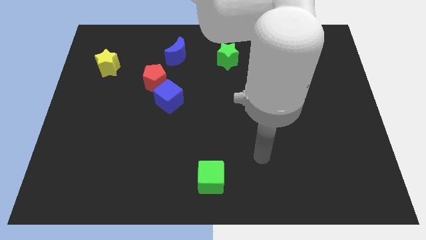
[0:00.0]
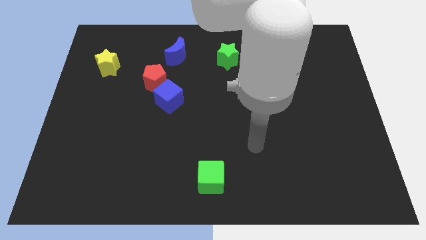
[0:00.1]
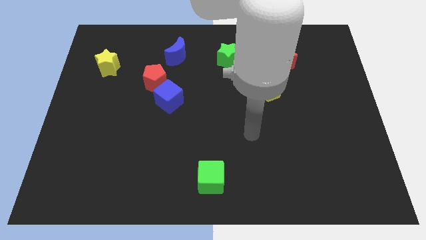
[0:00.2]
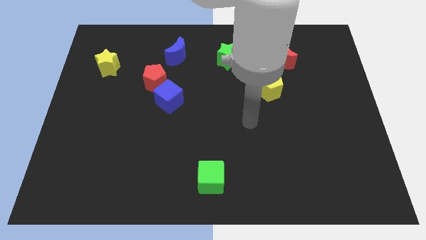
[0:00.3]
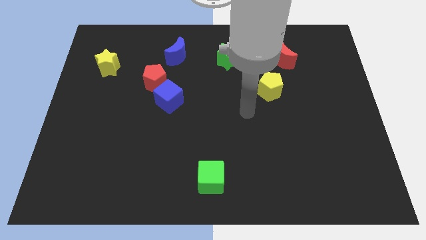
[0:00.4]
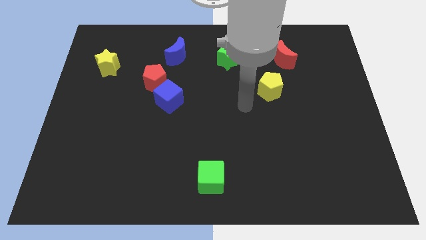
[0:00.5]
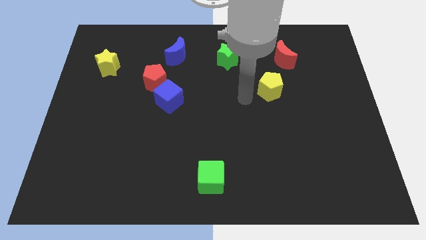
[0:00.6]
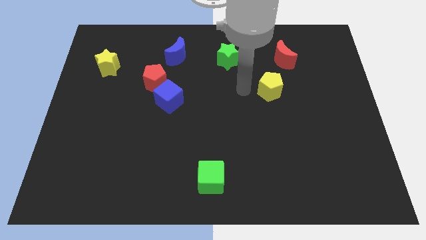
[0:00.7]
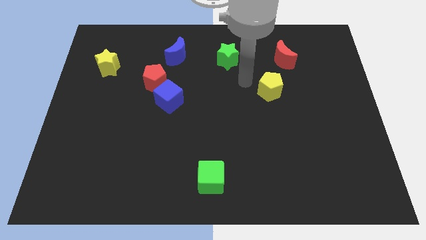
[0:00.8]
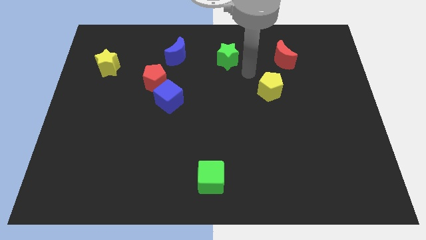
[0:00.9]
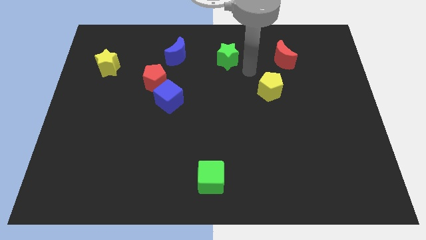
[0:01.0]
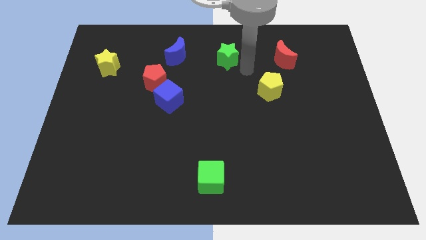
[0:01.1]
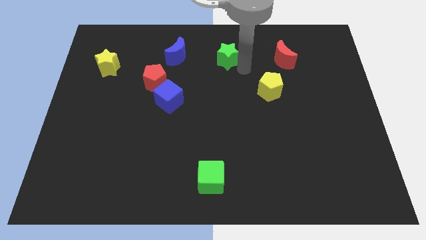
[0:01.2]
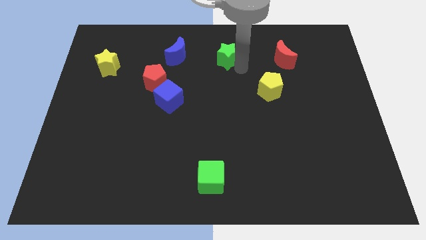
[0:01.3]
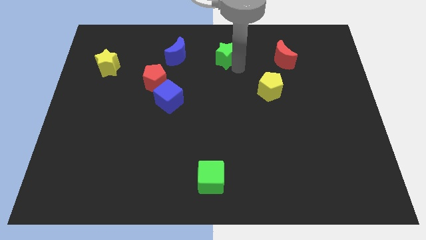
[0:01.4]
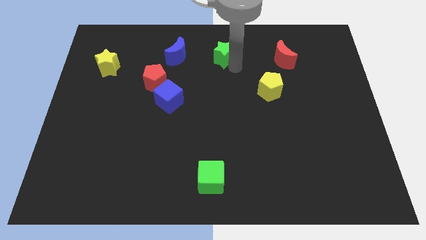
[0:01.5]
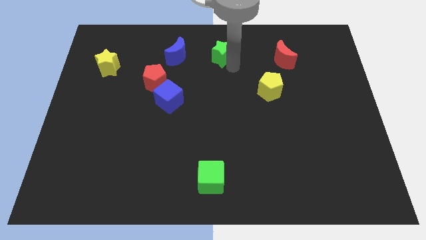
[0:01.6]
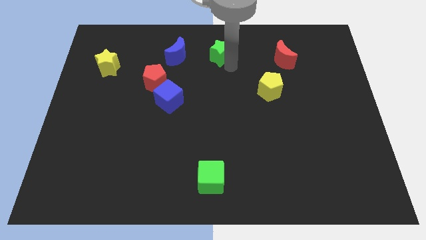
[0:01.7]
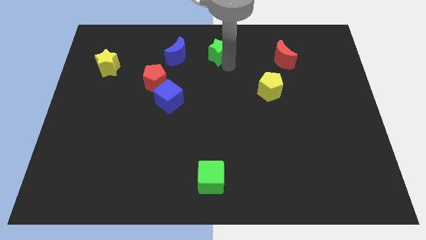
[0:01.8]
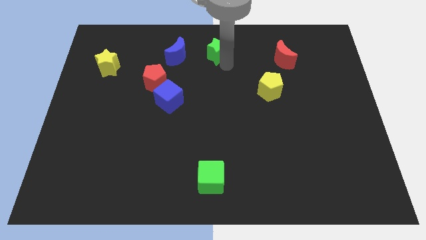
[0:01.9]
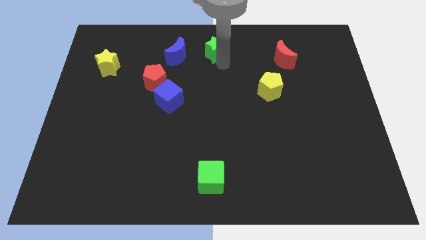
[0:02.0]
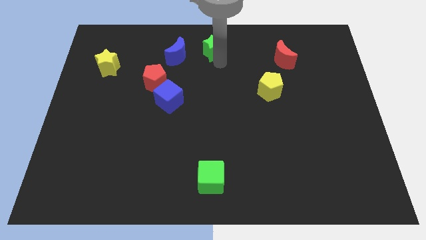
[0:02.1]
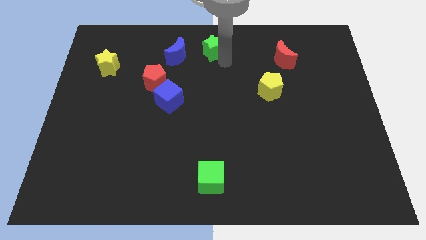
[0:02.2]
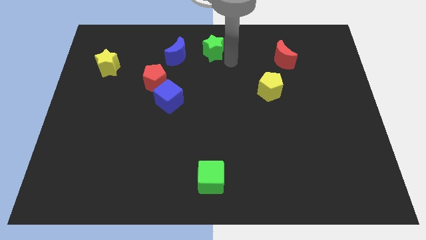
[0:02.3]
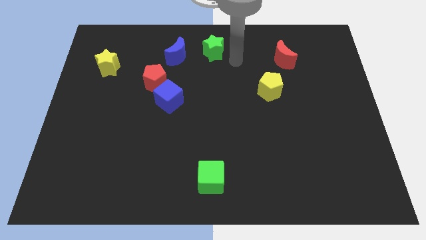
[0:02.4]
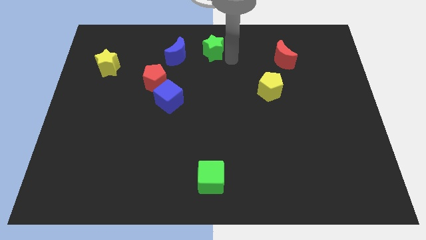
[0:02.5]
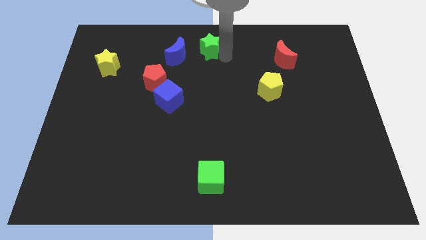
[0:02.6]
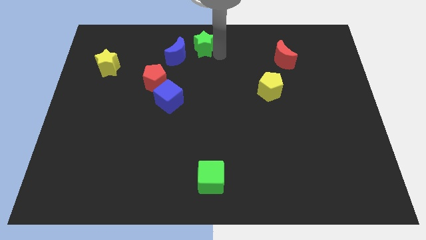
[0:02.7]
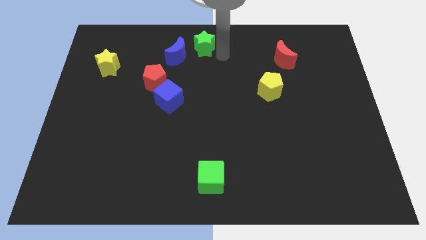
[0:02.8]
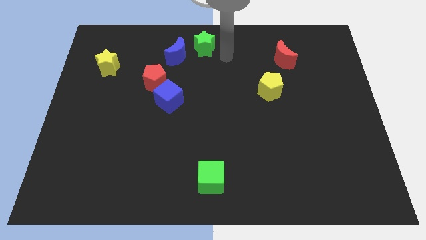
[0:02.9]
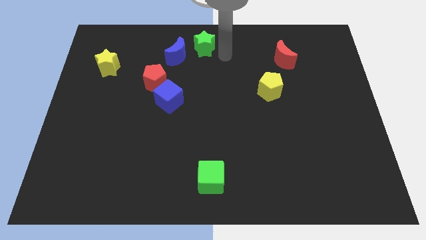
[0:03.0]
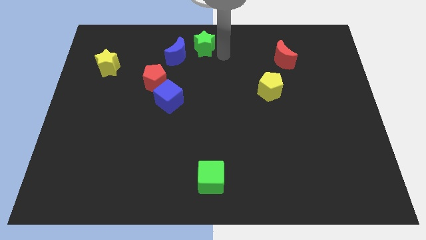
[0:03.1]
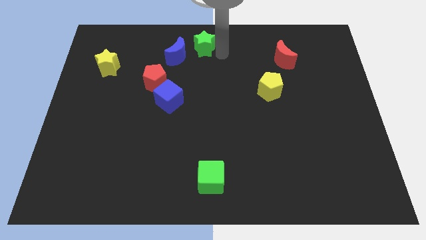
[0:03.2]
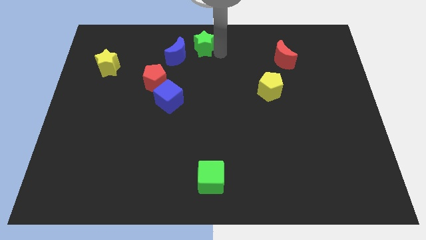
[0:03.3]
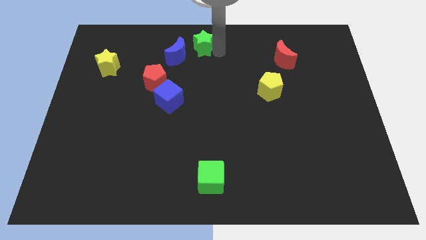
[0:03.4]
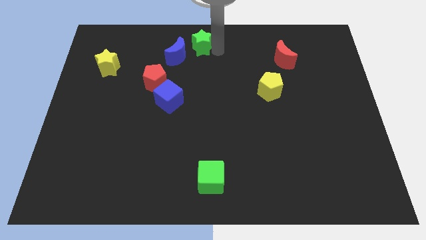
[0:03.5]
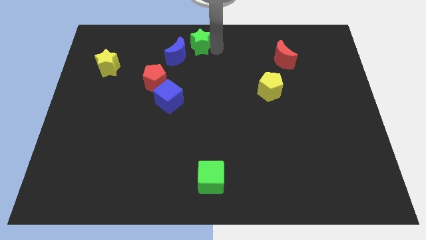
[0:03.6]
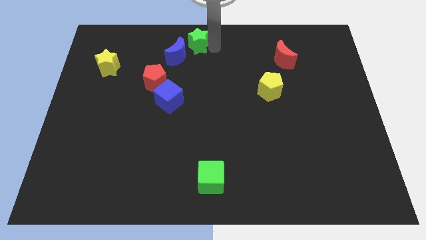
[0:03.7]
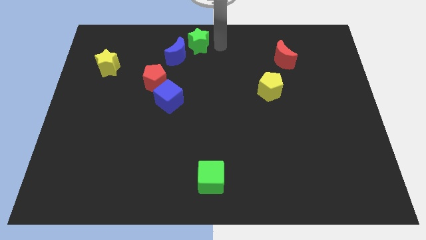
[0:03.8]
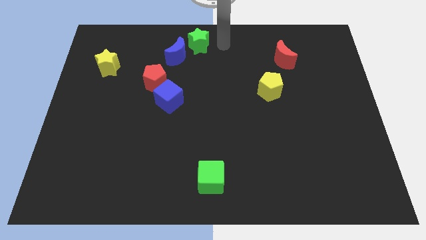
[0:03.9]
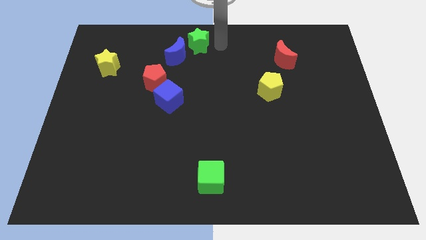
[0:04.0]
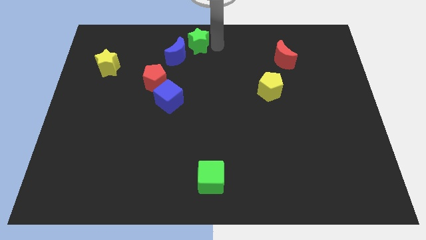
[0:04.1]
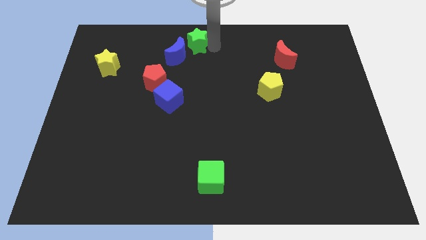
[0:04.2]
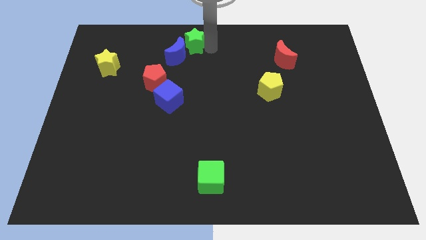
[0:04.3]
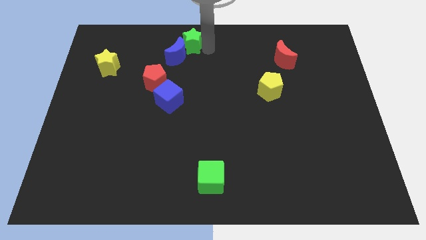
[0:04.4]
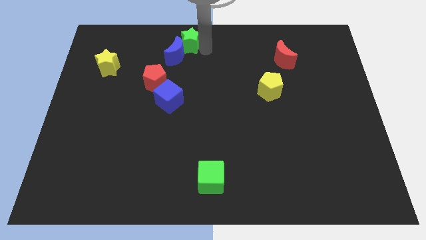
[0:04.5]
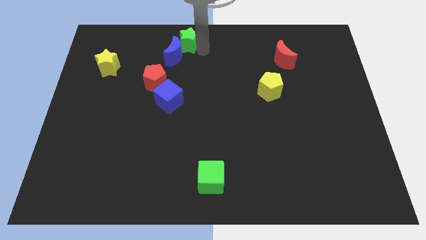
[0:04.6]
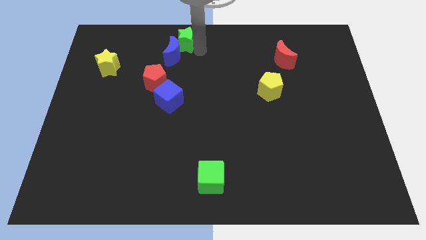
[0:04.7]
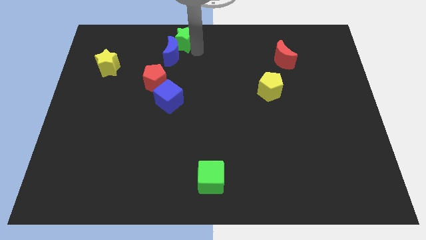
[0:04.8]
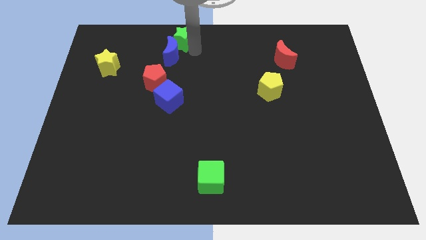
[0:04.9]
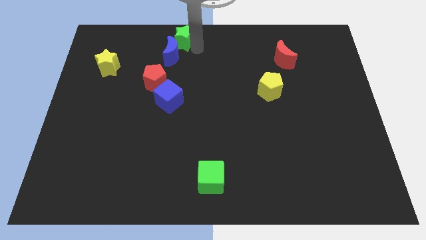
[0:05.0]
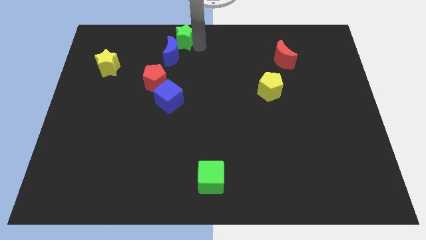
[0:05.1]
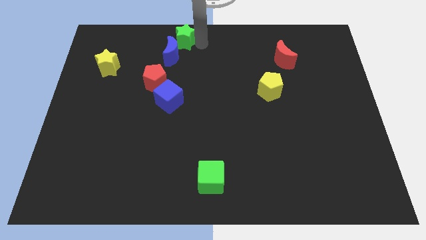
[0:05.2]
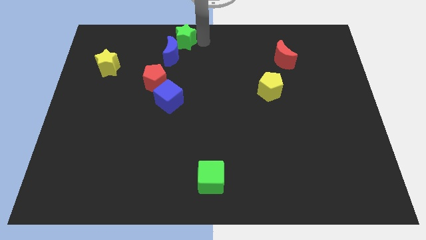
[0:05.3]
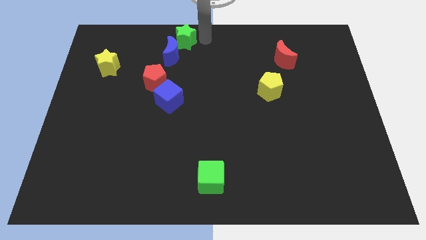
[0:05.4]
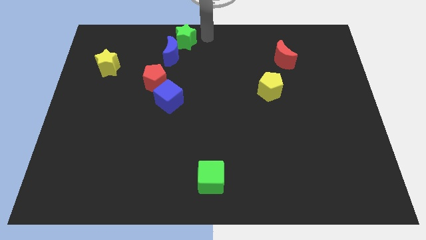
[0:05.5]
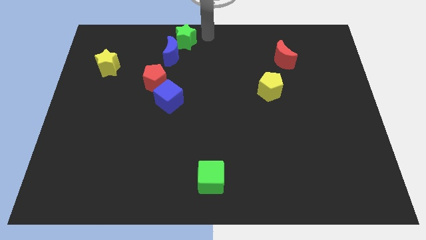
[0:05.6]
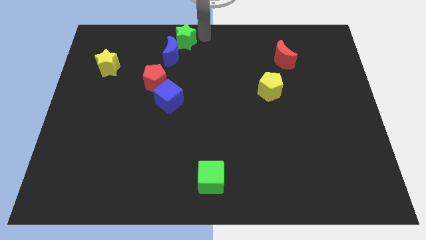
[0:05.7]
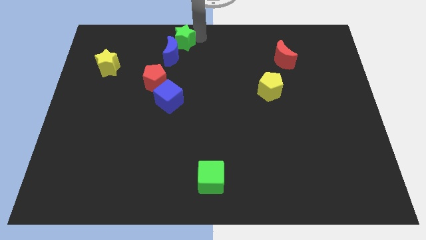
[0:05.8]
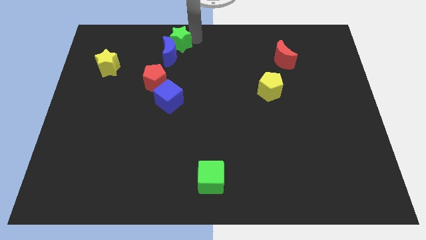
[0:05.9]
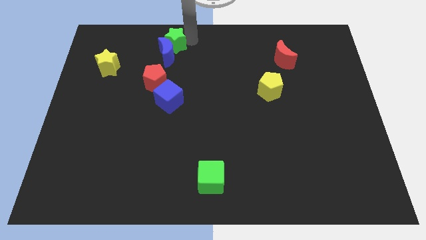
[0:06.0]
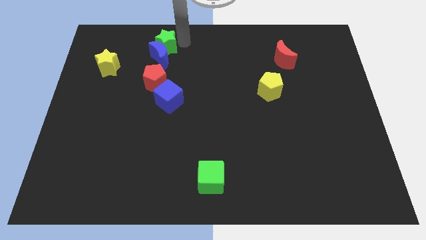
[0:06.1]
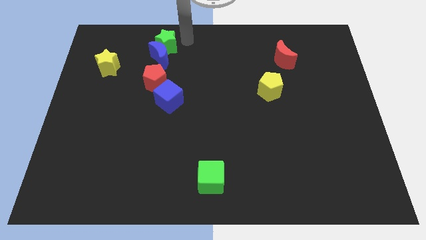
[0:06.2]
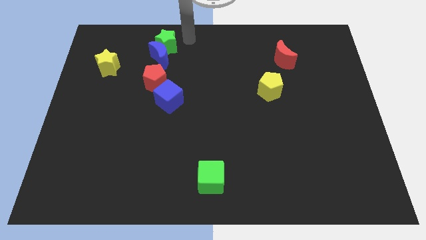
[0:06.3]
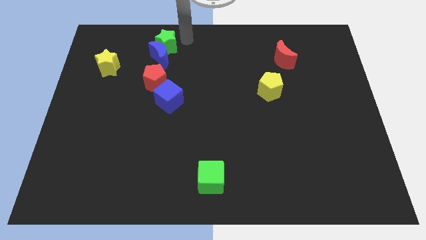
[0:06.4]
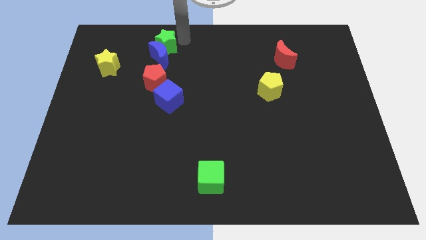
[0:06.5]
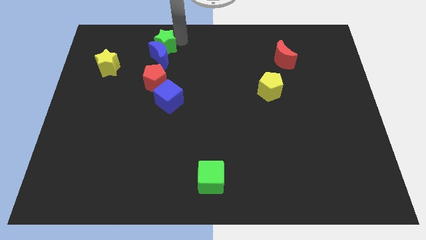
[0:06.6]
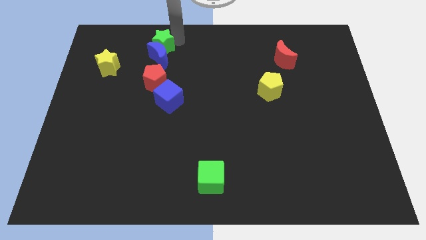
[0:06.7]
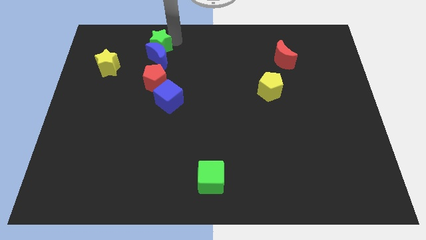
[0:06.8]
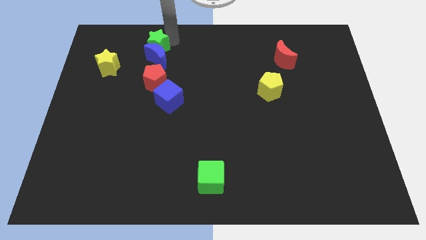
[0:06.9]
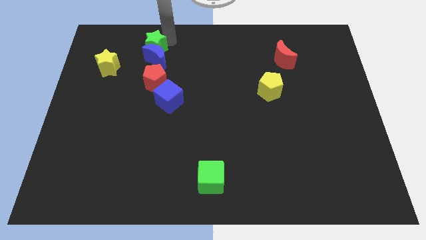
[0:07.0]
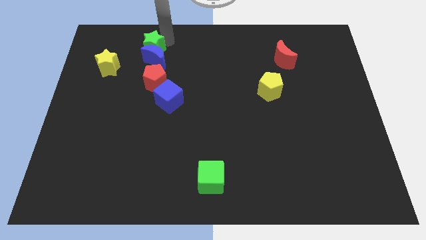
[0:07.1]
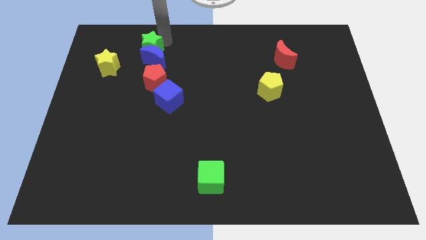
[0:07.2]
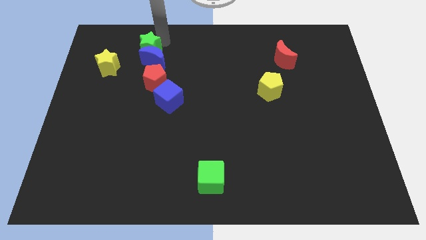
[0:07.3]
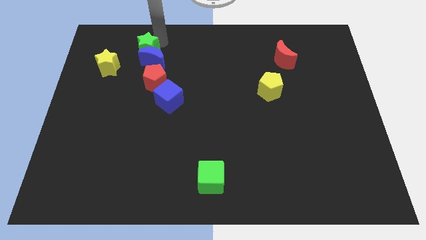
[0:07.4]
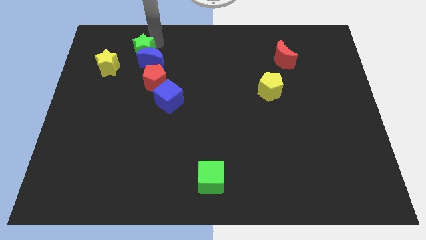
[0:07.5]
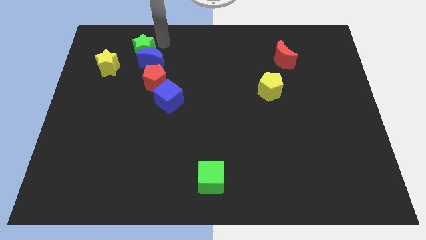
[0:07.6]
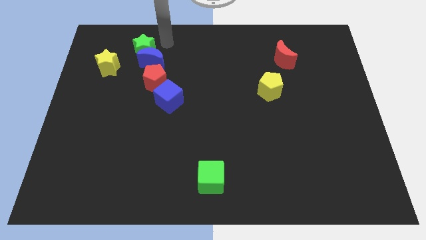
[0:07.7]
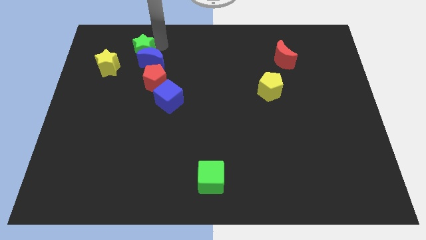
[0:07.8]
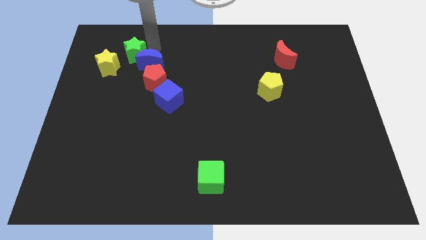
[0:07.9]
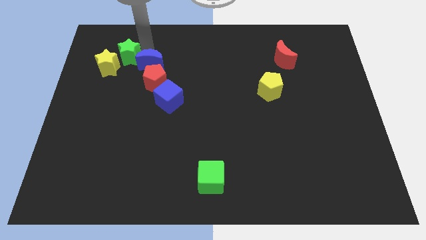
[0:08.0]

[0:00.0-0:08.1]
slide the green star close to the yellow star
